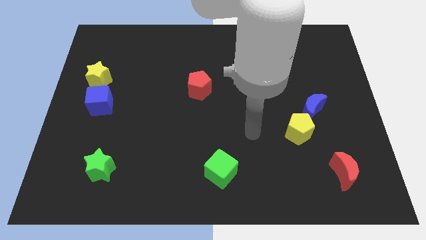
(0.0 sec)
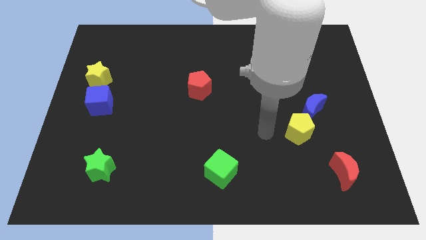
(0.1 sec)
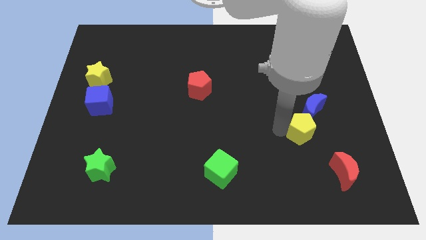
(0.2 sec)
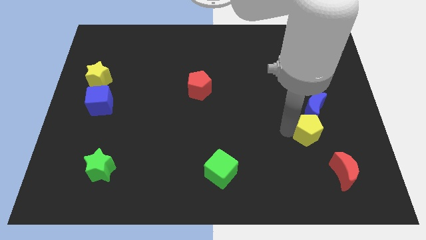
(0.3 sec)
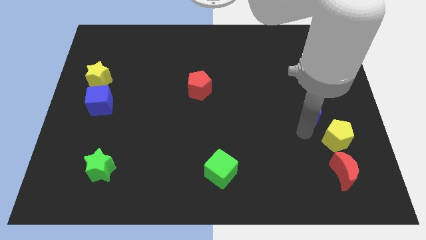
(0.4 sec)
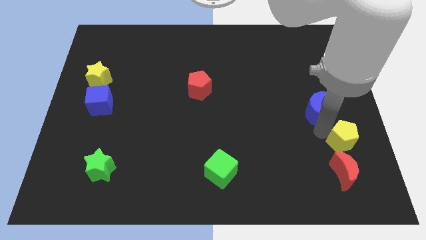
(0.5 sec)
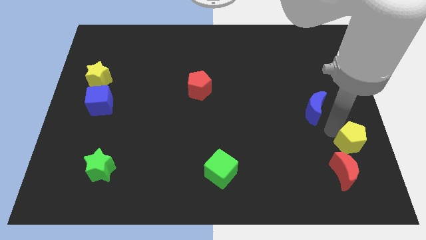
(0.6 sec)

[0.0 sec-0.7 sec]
separate the blue moon from the yellow pentagon

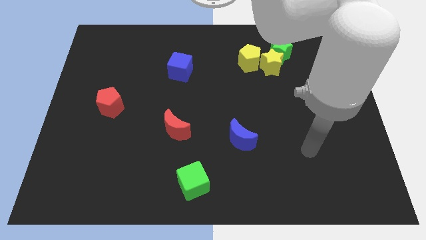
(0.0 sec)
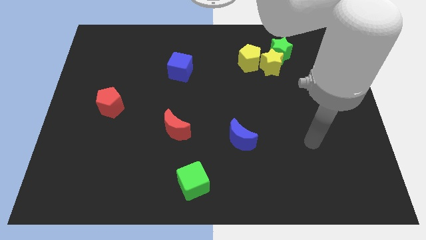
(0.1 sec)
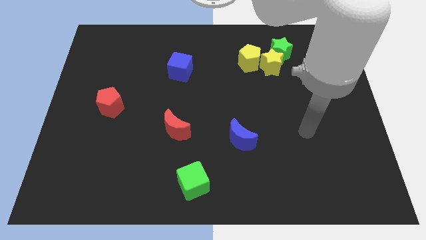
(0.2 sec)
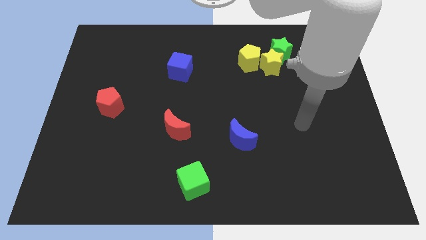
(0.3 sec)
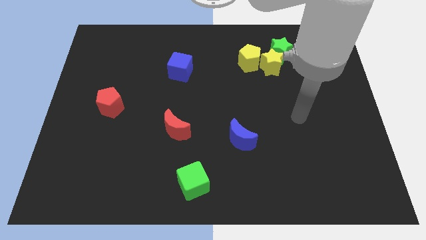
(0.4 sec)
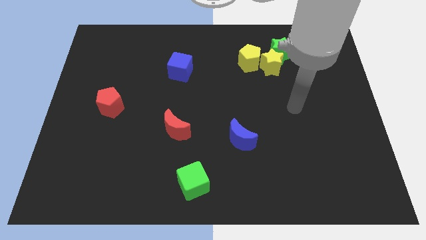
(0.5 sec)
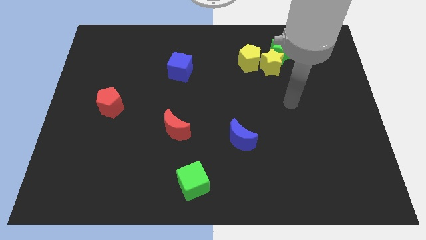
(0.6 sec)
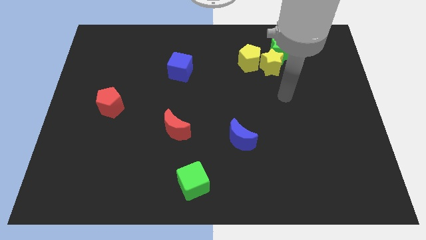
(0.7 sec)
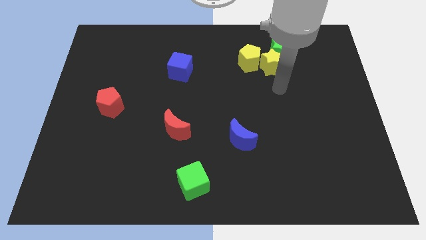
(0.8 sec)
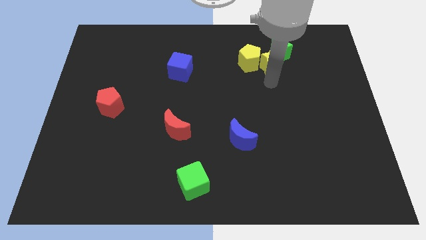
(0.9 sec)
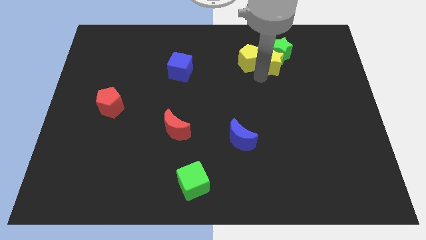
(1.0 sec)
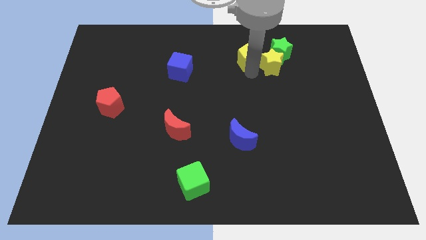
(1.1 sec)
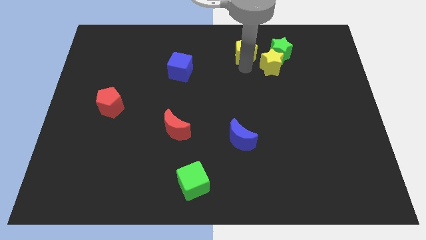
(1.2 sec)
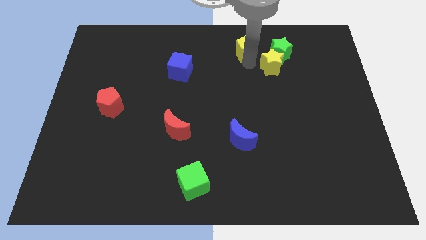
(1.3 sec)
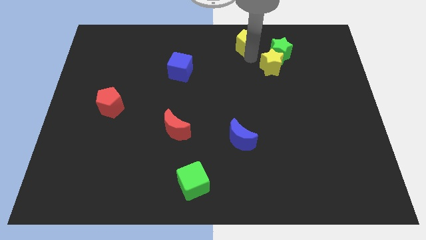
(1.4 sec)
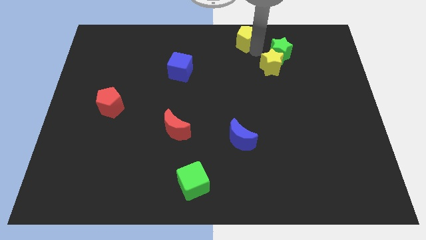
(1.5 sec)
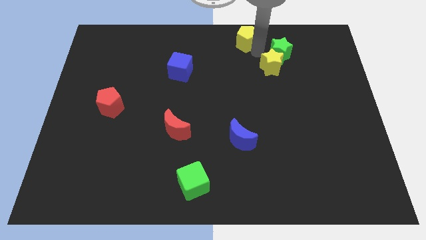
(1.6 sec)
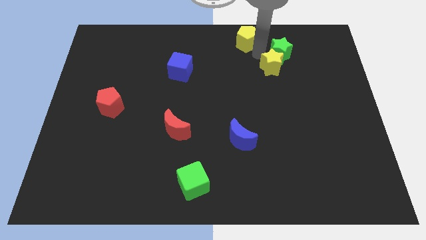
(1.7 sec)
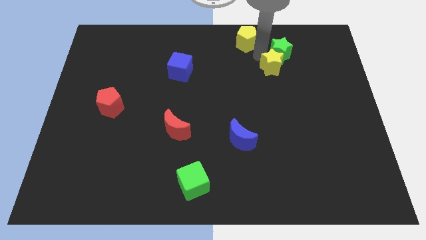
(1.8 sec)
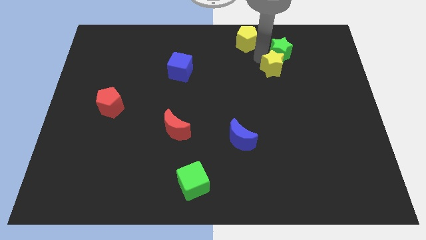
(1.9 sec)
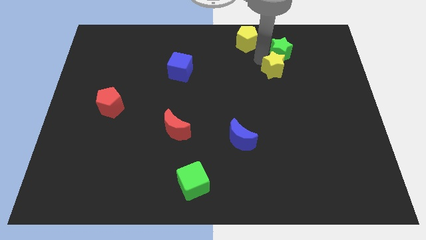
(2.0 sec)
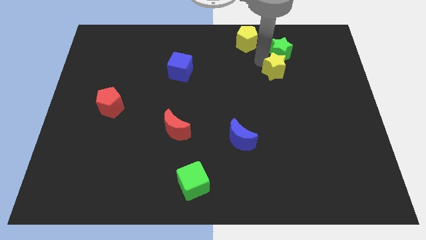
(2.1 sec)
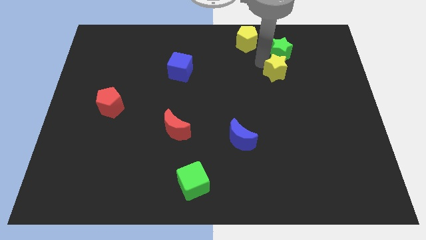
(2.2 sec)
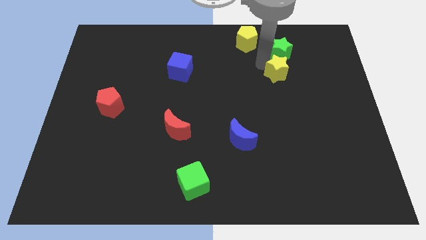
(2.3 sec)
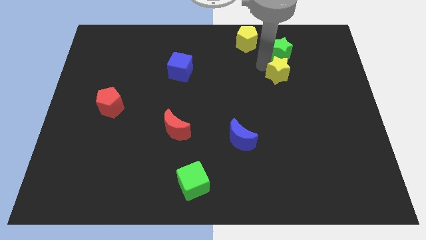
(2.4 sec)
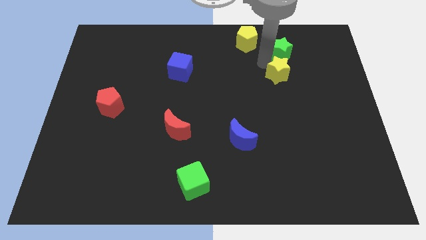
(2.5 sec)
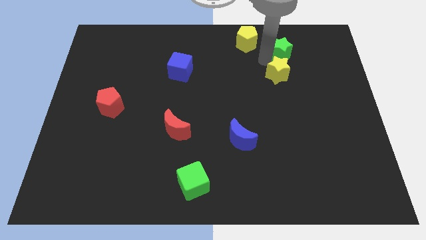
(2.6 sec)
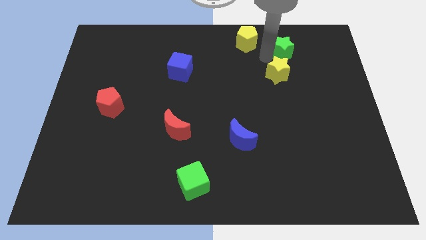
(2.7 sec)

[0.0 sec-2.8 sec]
separate the yellow star from the green star and yellow pentagon

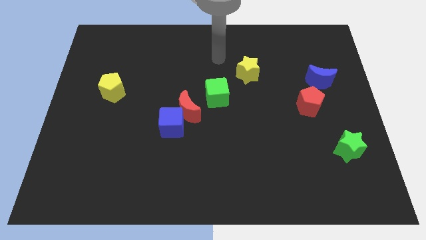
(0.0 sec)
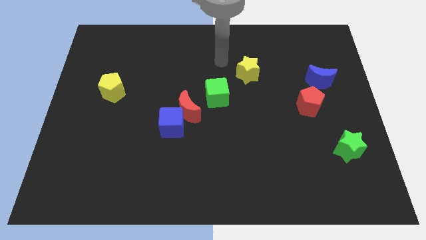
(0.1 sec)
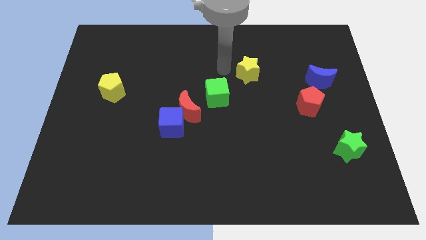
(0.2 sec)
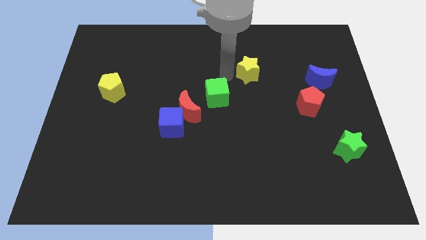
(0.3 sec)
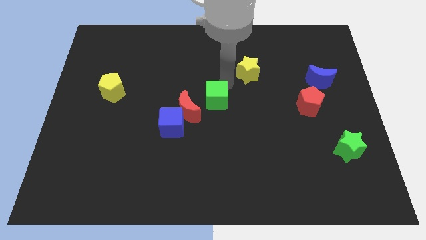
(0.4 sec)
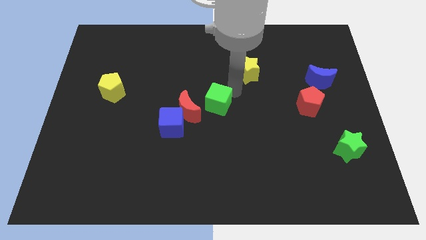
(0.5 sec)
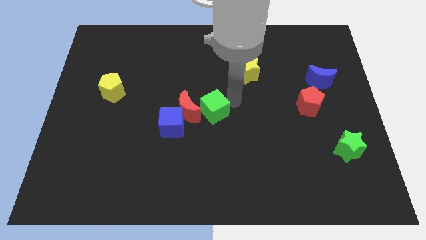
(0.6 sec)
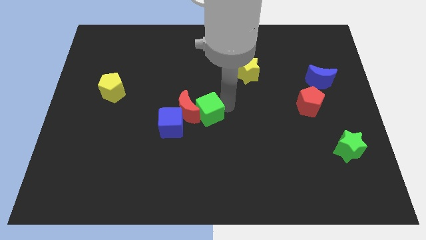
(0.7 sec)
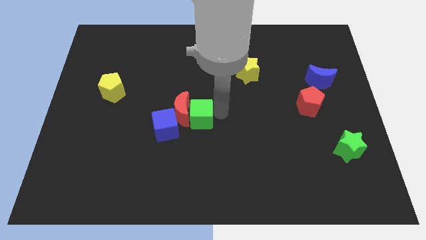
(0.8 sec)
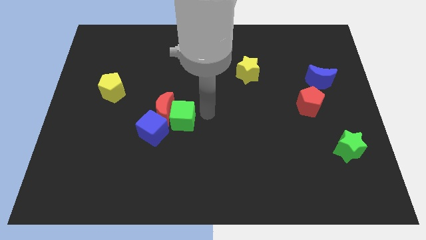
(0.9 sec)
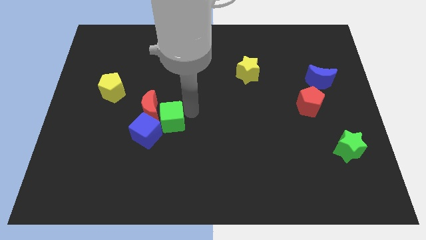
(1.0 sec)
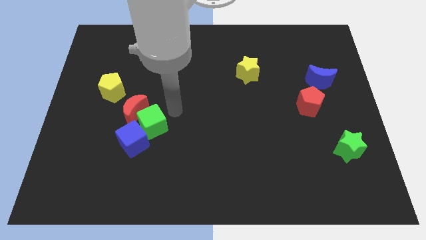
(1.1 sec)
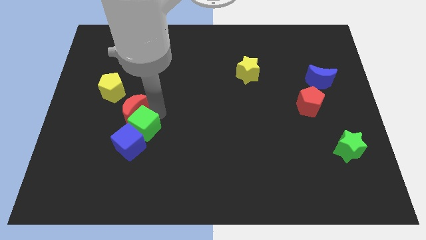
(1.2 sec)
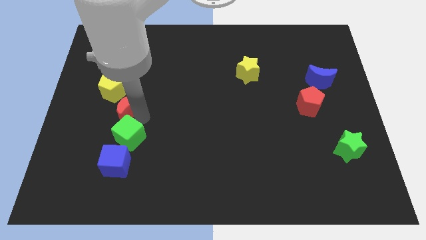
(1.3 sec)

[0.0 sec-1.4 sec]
move the blue cube away from the red moon

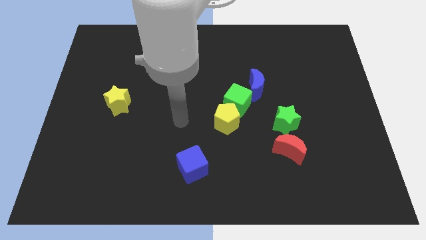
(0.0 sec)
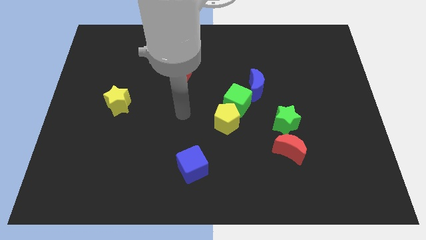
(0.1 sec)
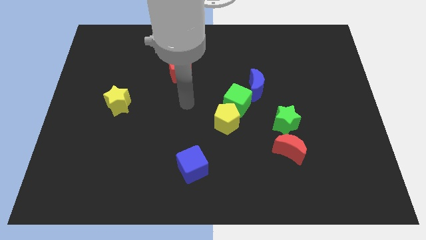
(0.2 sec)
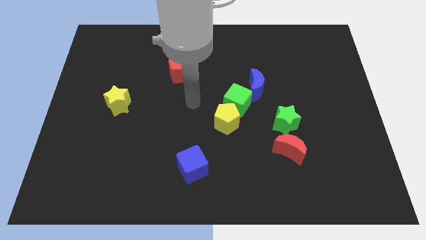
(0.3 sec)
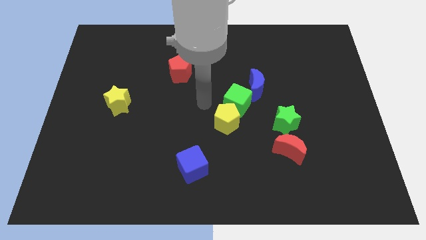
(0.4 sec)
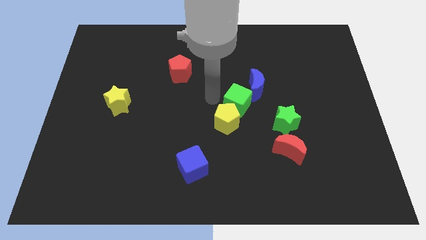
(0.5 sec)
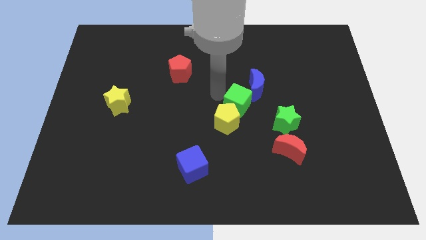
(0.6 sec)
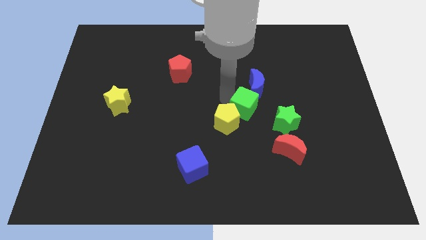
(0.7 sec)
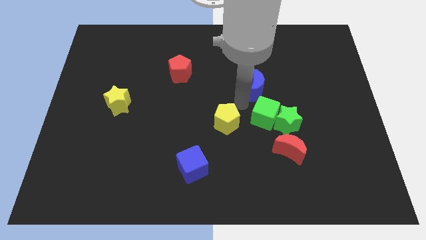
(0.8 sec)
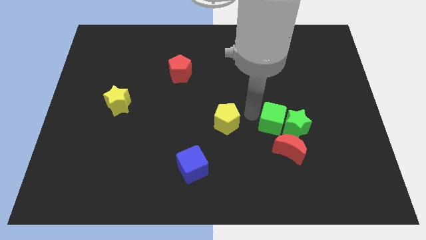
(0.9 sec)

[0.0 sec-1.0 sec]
separate the yellow pentagon from the green cube

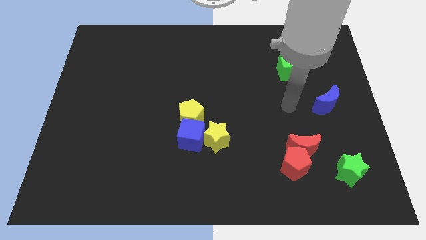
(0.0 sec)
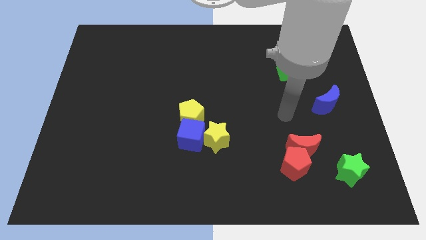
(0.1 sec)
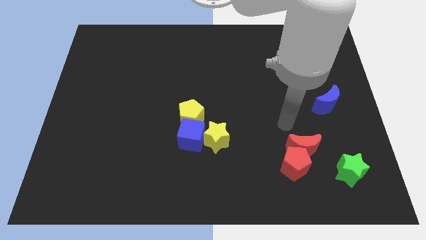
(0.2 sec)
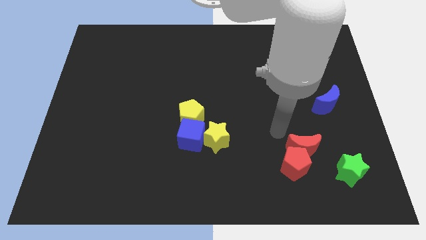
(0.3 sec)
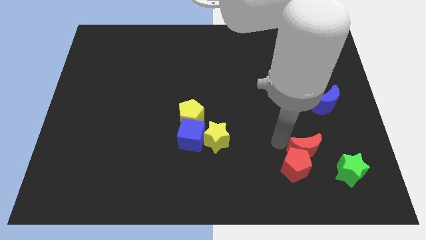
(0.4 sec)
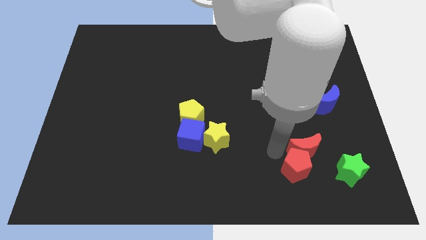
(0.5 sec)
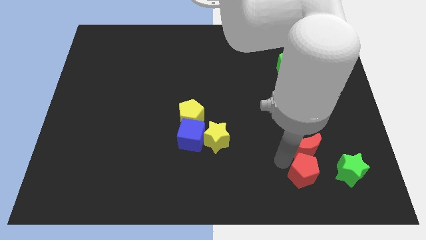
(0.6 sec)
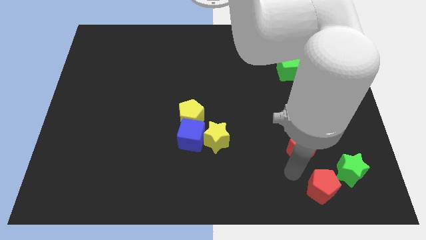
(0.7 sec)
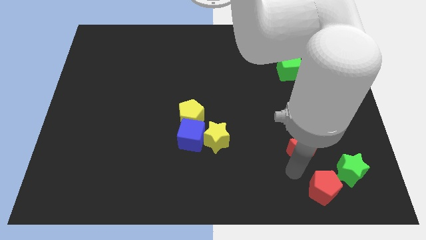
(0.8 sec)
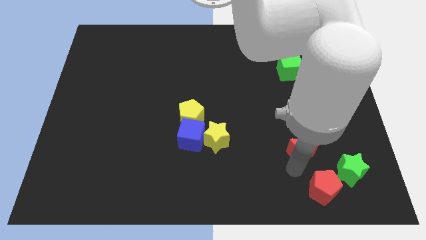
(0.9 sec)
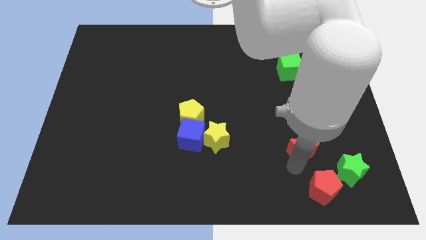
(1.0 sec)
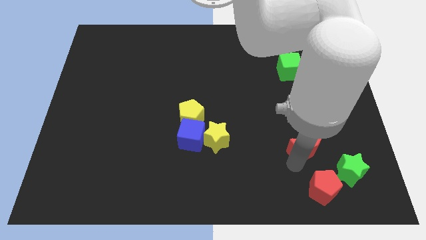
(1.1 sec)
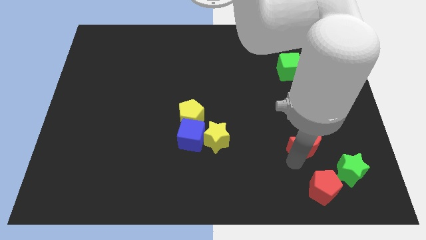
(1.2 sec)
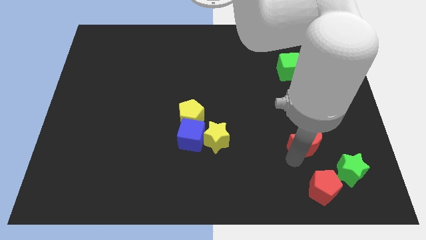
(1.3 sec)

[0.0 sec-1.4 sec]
move the red moon away from the red pentagon

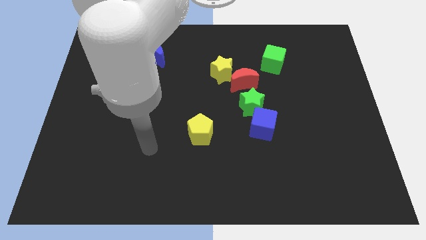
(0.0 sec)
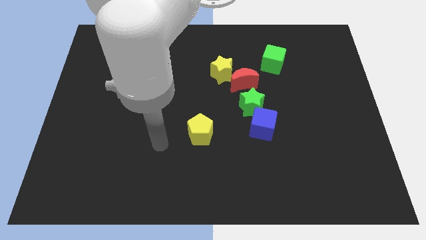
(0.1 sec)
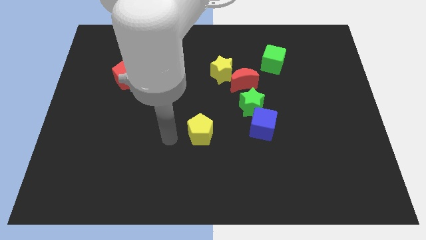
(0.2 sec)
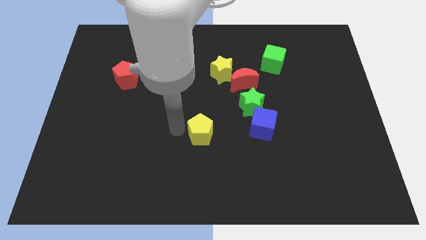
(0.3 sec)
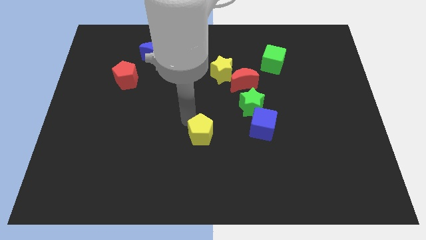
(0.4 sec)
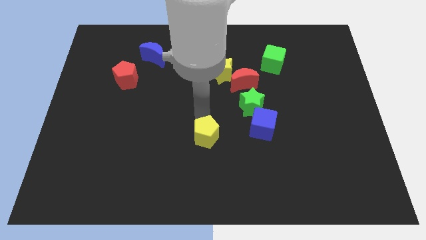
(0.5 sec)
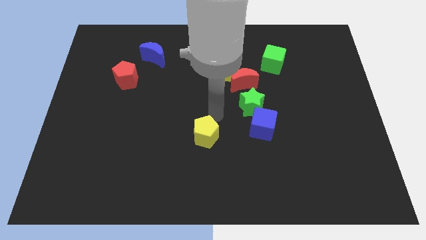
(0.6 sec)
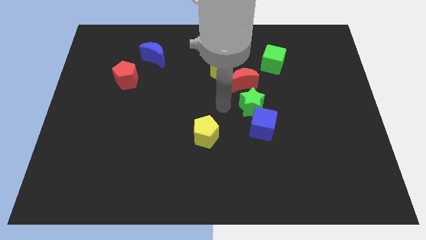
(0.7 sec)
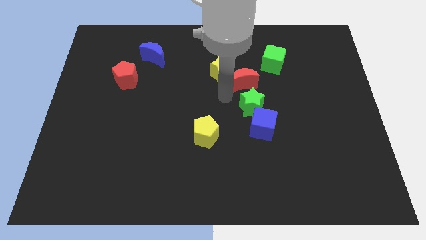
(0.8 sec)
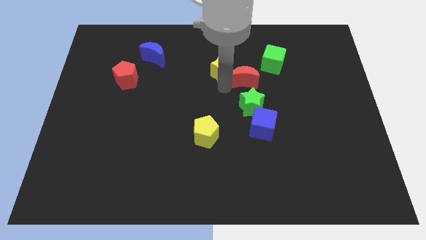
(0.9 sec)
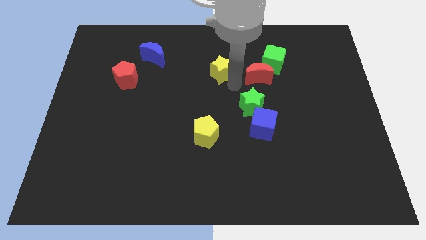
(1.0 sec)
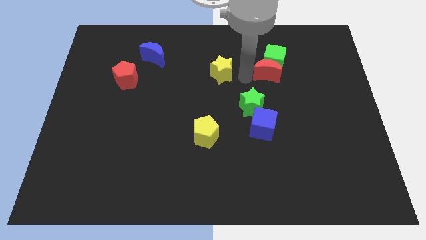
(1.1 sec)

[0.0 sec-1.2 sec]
move the yellow star away from the red moon

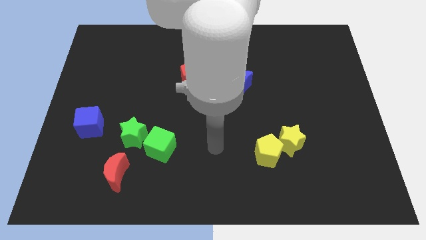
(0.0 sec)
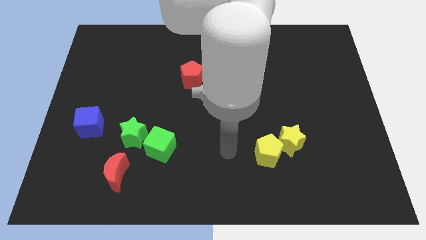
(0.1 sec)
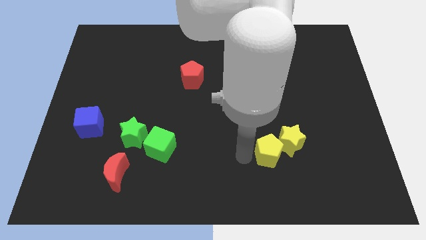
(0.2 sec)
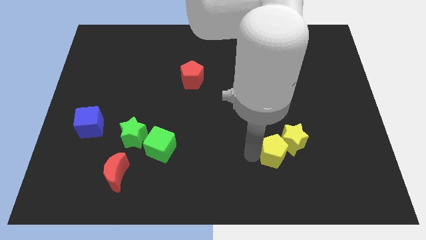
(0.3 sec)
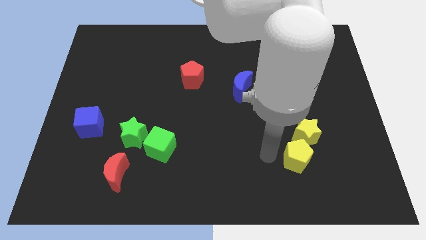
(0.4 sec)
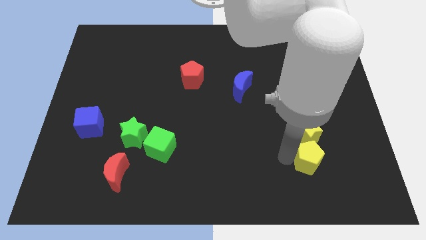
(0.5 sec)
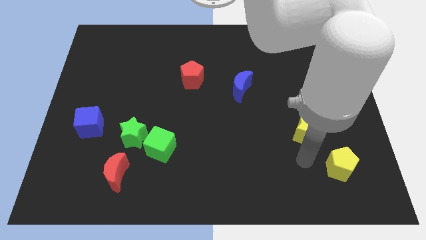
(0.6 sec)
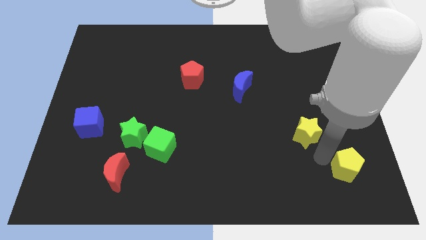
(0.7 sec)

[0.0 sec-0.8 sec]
separate the yellow star from the yellow pentagon

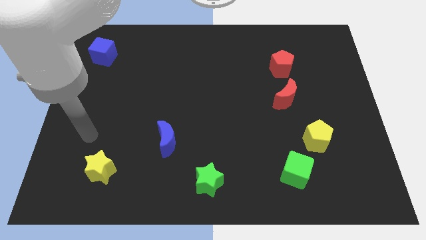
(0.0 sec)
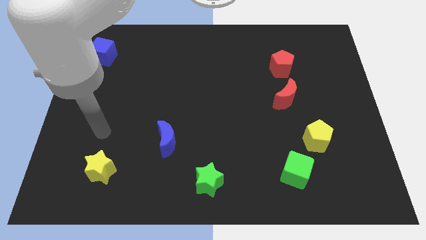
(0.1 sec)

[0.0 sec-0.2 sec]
move the green cube away from the yellow pentagon
